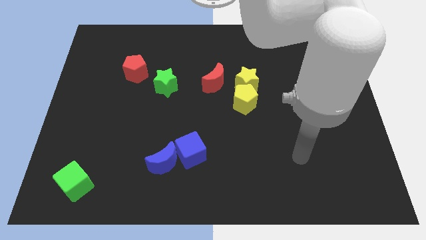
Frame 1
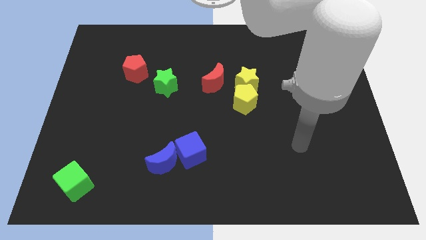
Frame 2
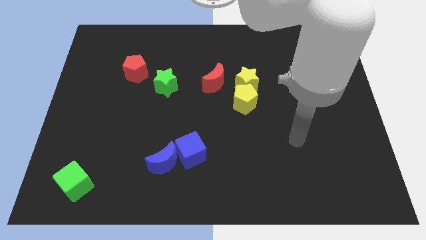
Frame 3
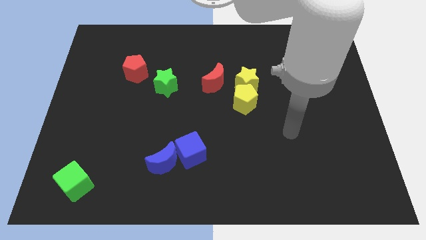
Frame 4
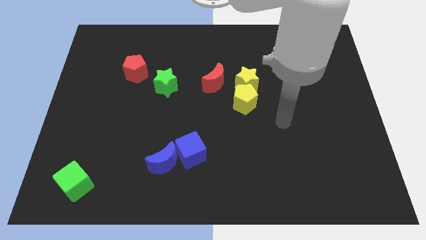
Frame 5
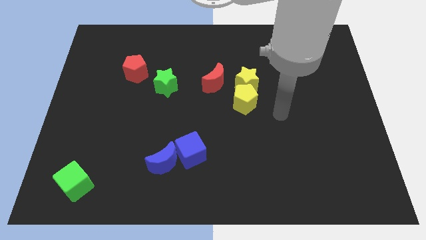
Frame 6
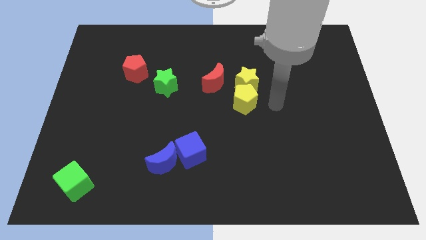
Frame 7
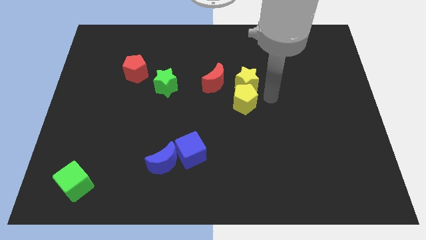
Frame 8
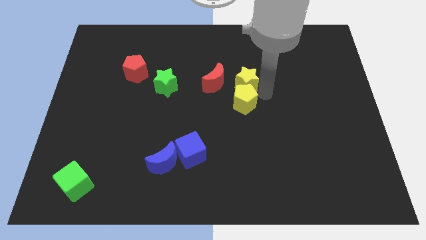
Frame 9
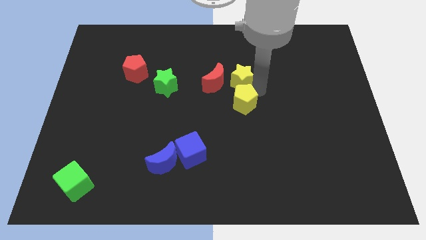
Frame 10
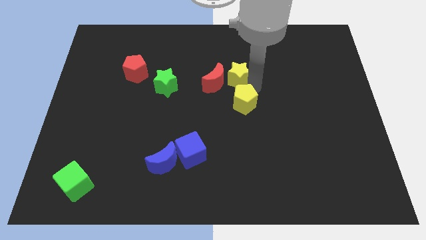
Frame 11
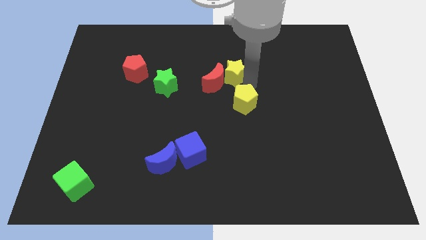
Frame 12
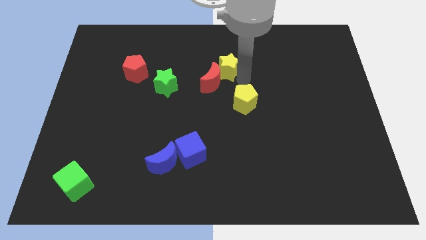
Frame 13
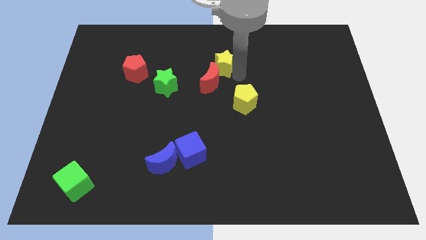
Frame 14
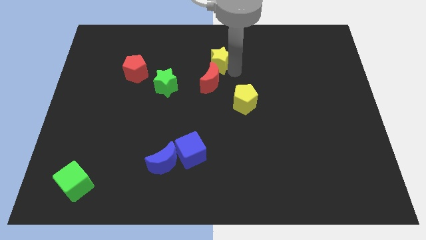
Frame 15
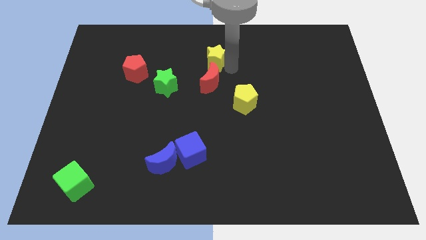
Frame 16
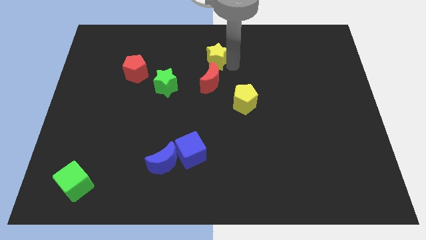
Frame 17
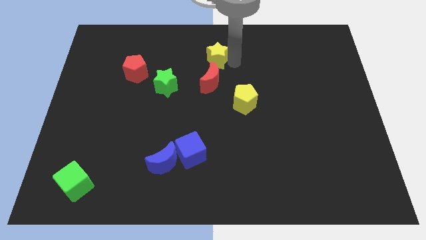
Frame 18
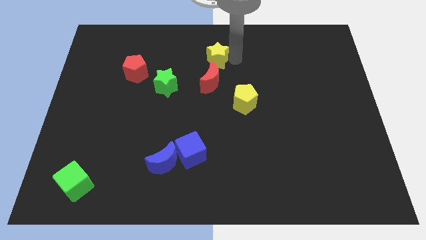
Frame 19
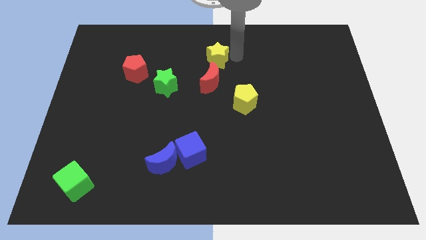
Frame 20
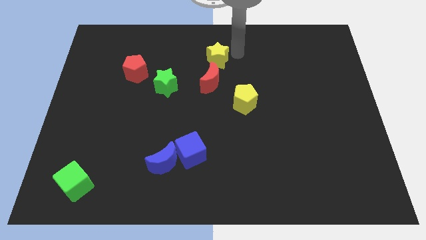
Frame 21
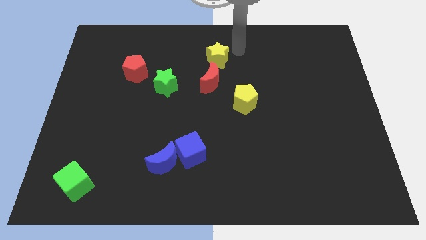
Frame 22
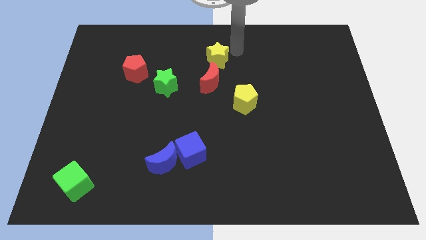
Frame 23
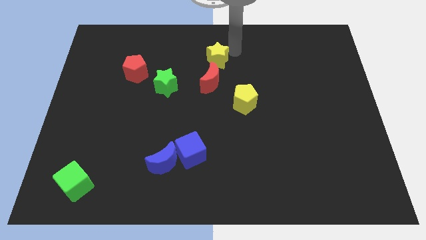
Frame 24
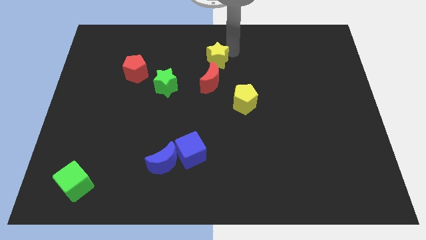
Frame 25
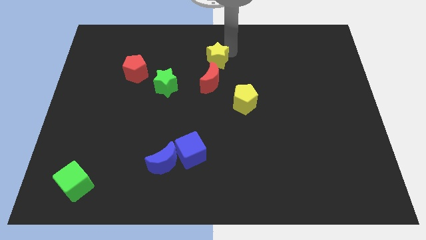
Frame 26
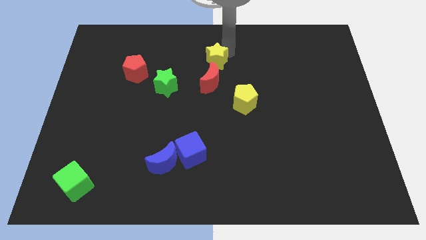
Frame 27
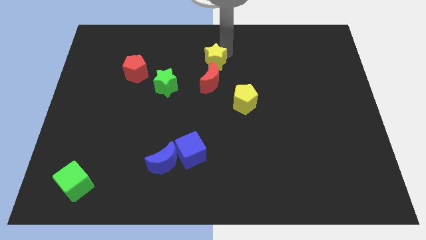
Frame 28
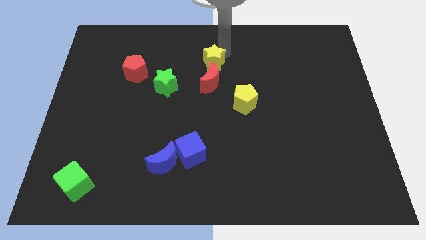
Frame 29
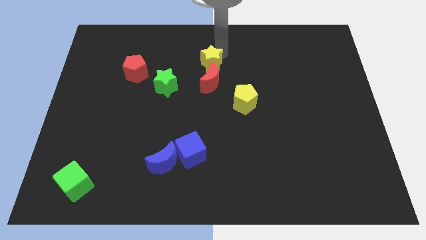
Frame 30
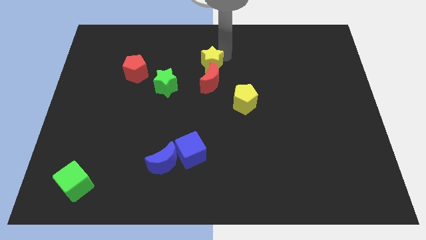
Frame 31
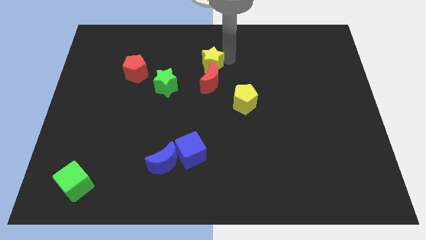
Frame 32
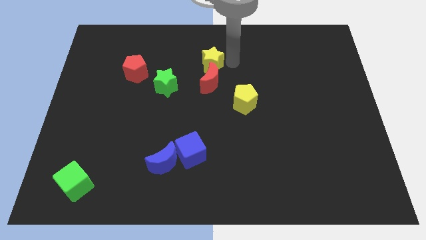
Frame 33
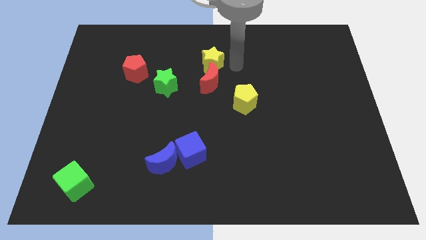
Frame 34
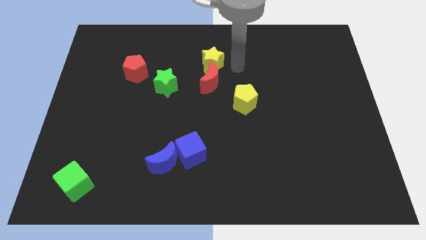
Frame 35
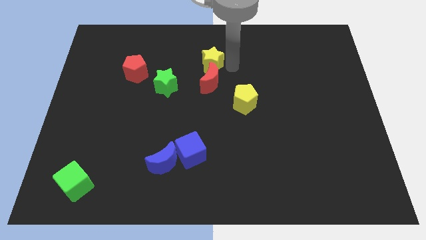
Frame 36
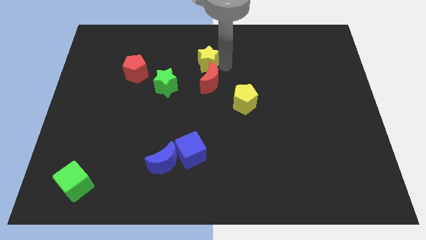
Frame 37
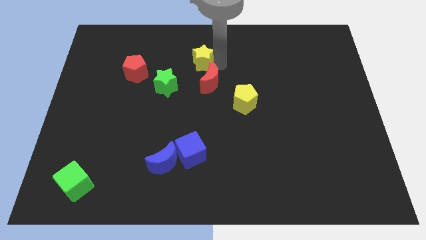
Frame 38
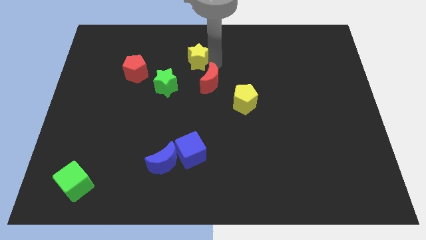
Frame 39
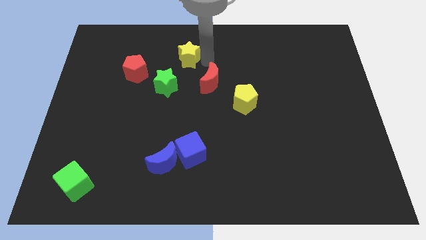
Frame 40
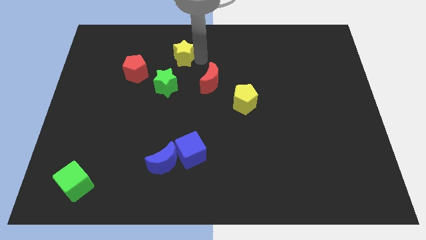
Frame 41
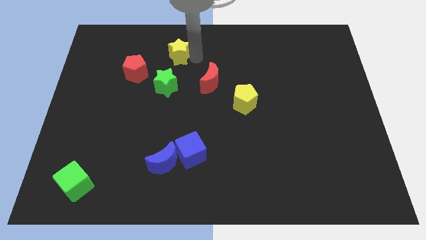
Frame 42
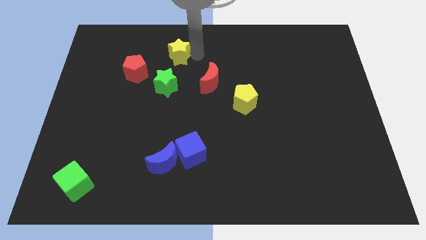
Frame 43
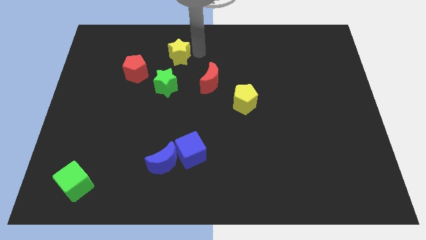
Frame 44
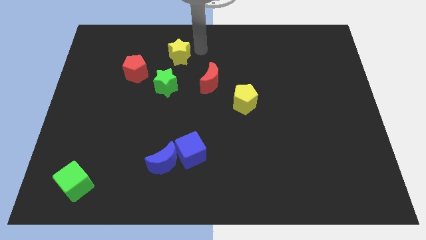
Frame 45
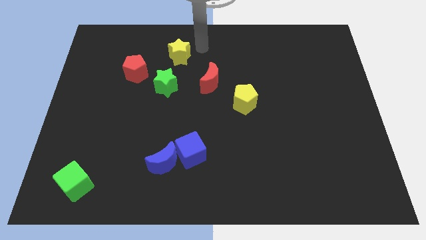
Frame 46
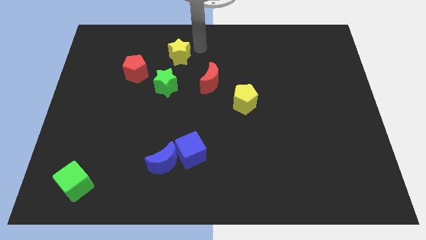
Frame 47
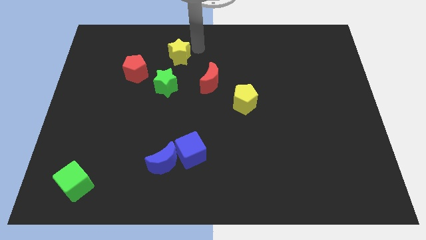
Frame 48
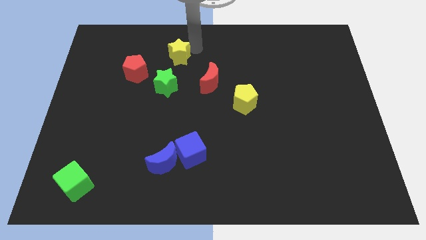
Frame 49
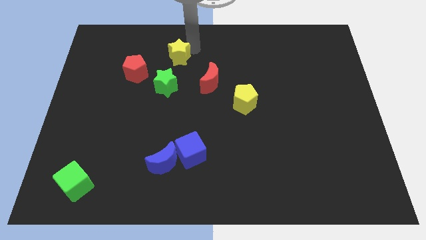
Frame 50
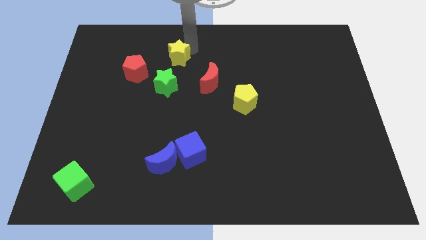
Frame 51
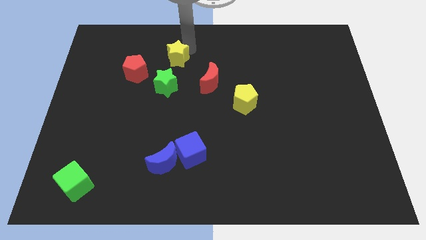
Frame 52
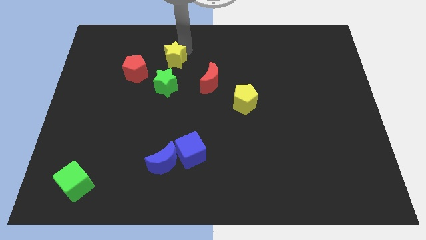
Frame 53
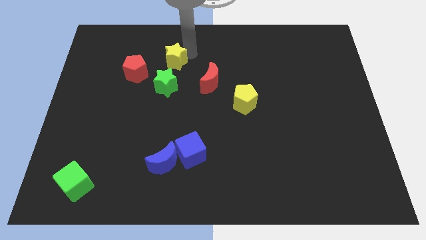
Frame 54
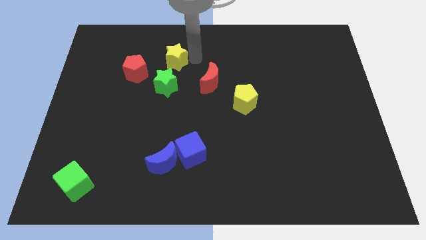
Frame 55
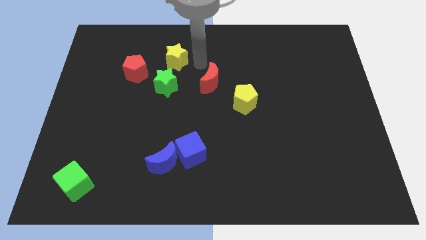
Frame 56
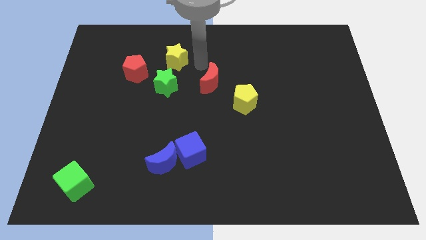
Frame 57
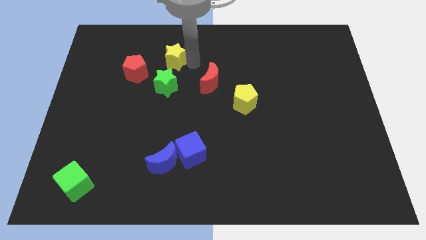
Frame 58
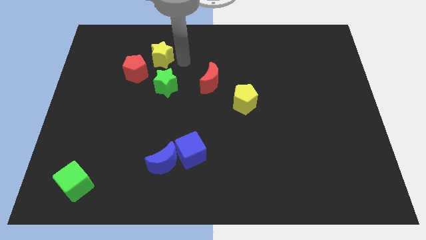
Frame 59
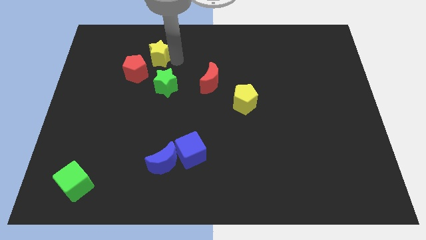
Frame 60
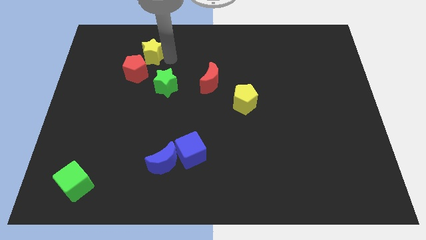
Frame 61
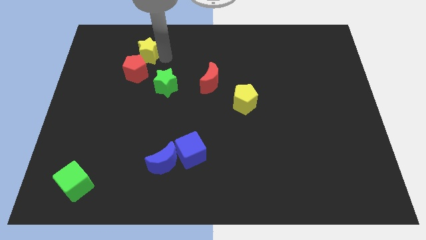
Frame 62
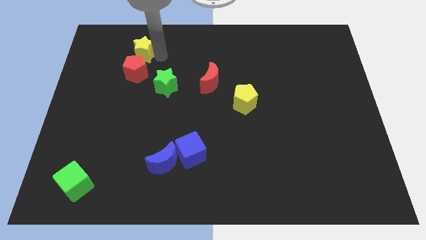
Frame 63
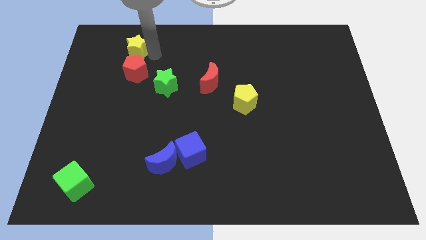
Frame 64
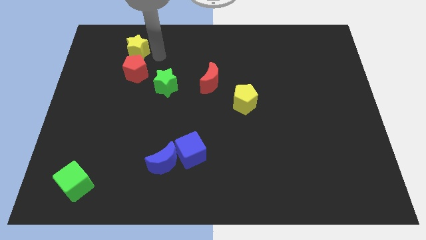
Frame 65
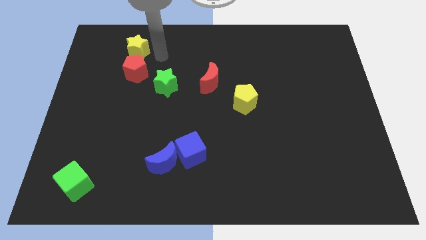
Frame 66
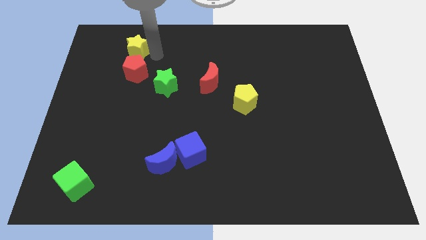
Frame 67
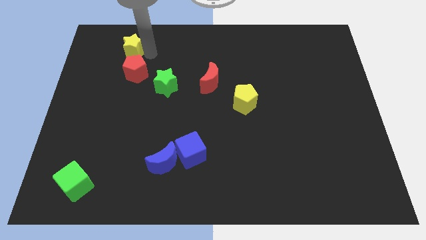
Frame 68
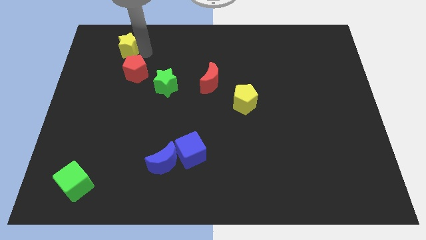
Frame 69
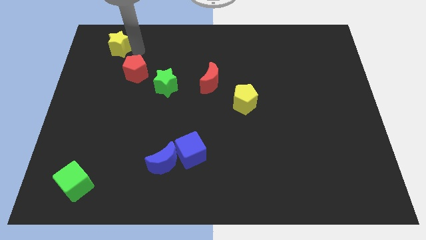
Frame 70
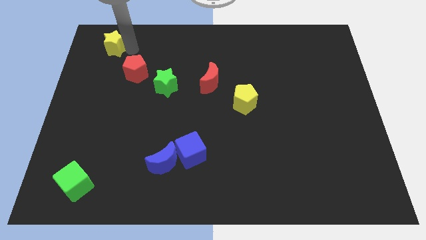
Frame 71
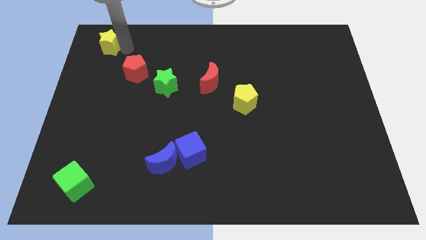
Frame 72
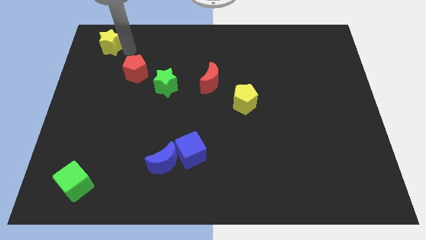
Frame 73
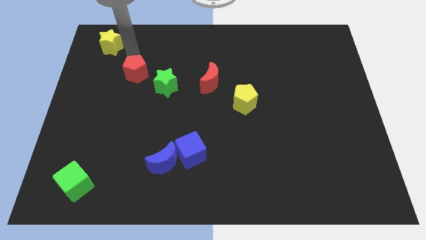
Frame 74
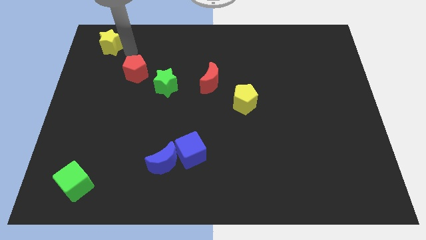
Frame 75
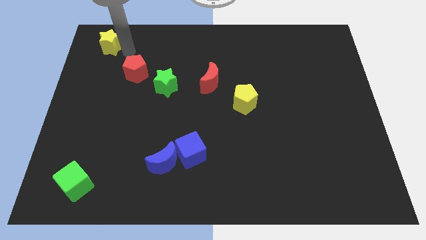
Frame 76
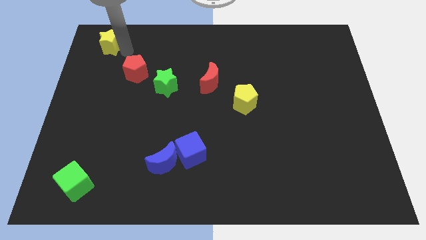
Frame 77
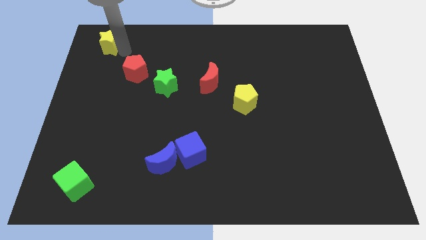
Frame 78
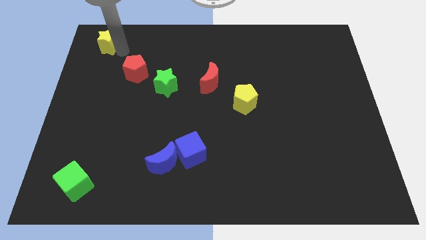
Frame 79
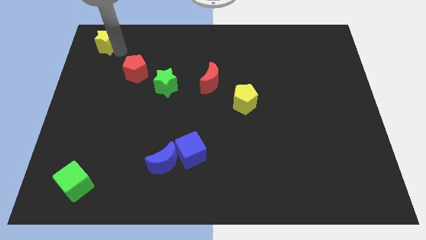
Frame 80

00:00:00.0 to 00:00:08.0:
move the yellow star to the upper left corner

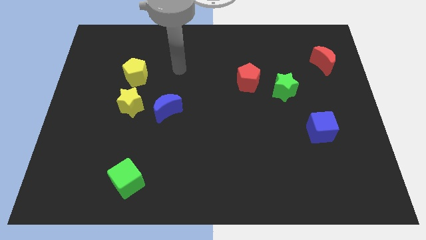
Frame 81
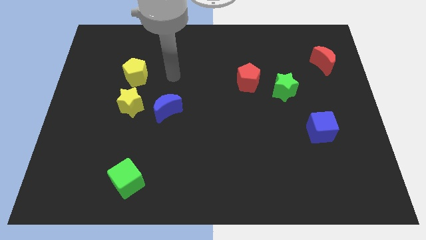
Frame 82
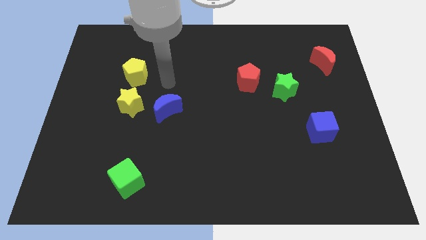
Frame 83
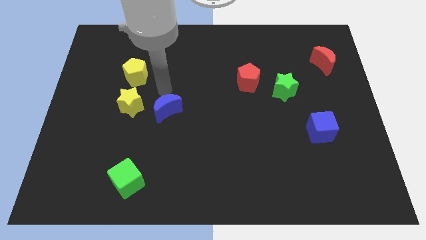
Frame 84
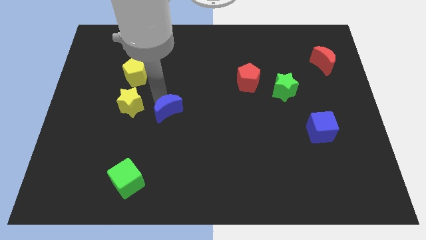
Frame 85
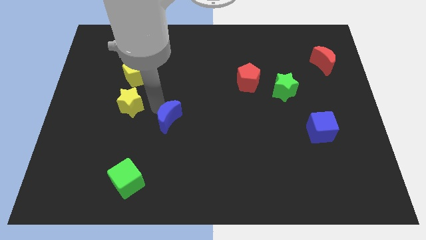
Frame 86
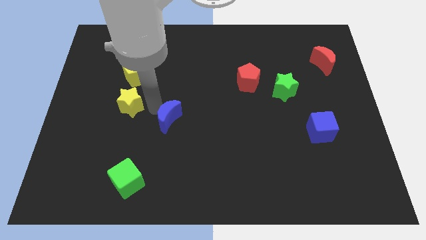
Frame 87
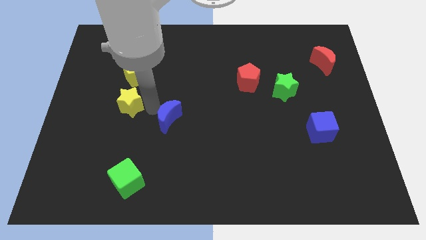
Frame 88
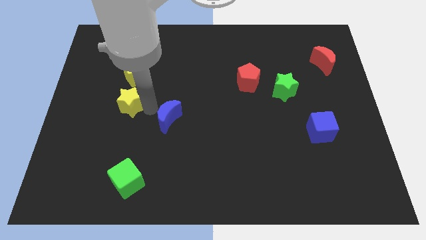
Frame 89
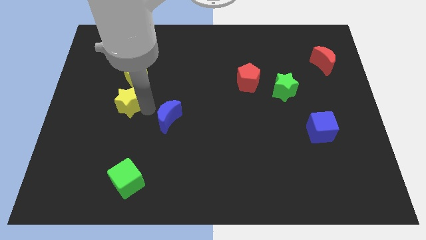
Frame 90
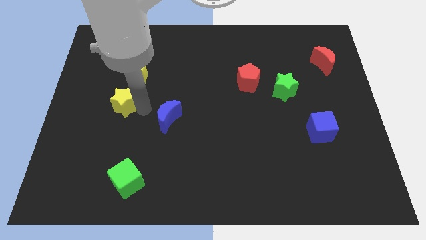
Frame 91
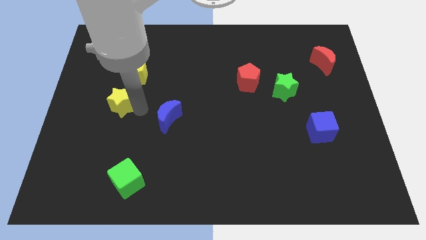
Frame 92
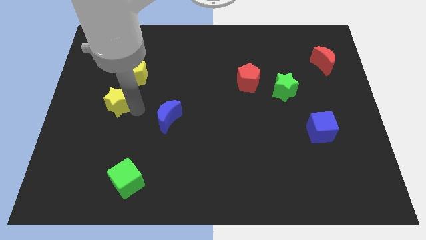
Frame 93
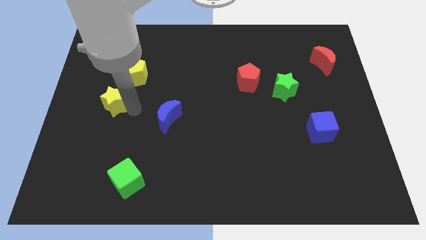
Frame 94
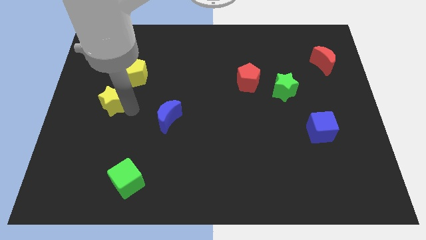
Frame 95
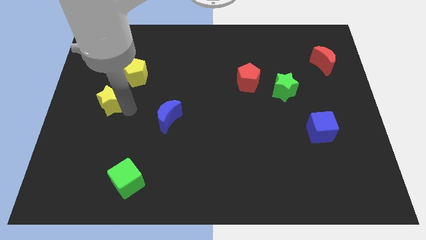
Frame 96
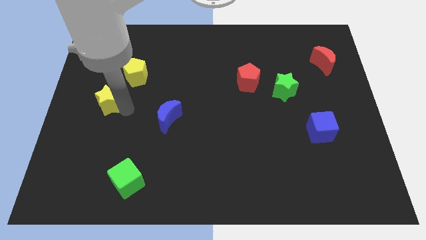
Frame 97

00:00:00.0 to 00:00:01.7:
move the yellow star to the center left
